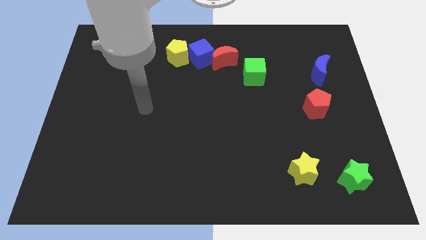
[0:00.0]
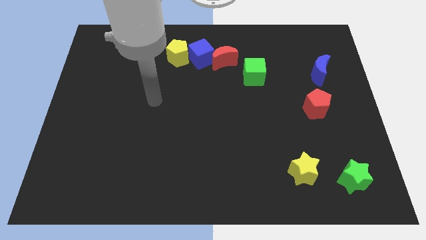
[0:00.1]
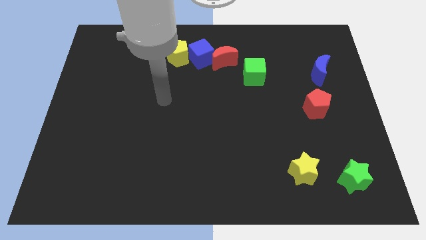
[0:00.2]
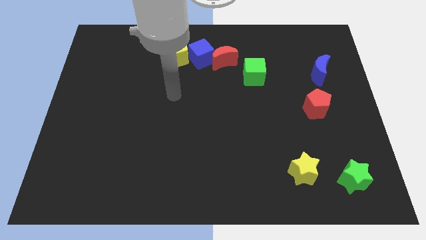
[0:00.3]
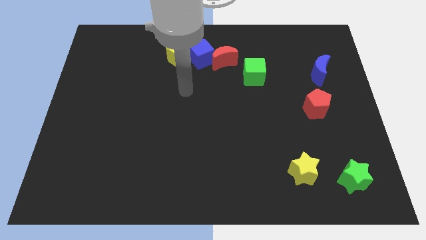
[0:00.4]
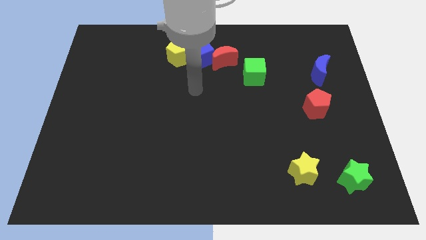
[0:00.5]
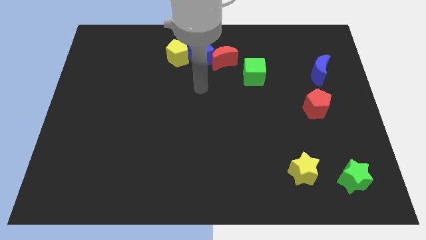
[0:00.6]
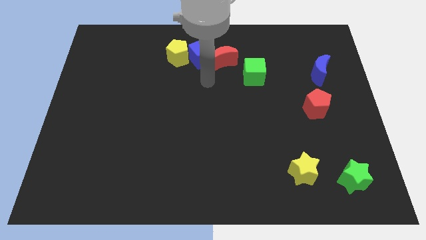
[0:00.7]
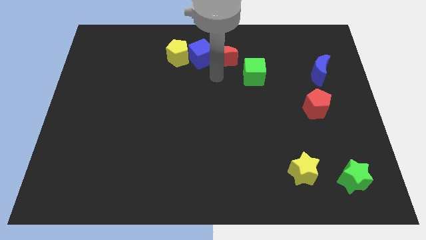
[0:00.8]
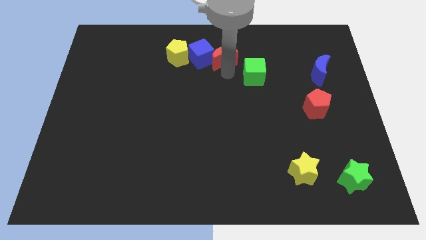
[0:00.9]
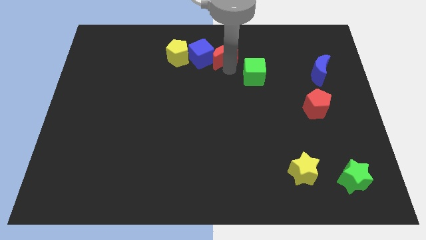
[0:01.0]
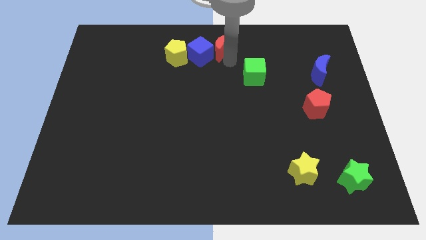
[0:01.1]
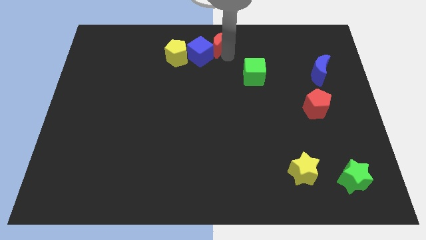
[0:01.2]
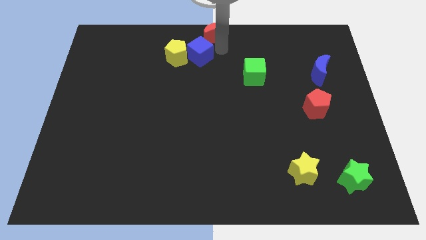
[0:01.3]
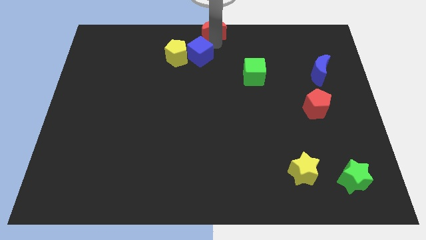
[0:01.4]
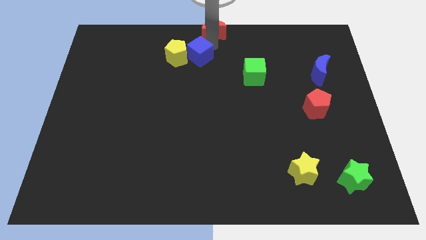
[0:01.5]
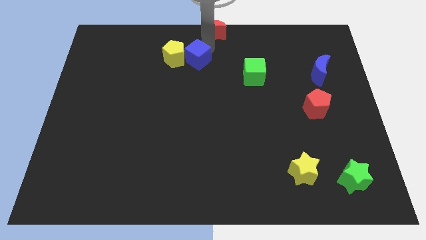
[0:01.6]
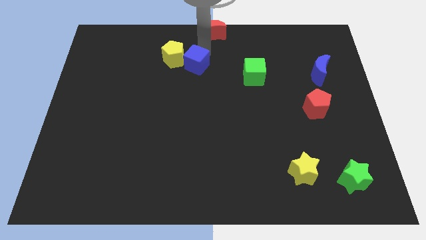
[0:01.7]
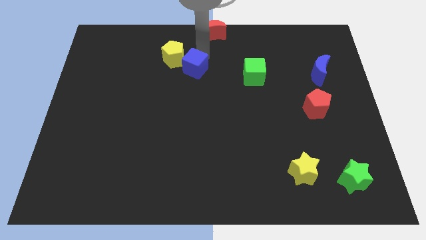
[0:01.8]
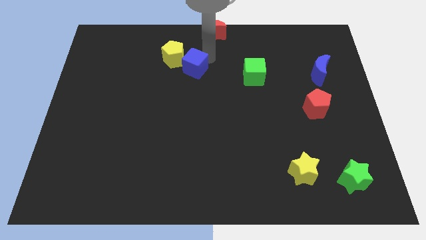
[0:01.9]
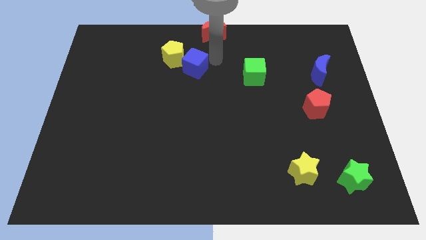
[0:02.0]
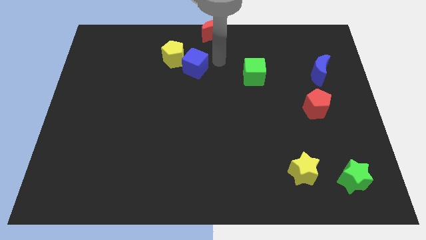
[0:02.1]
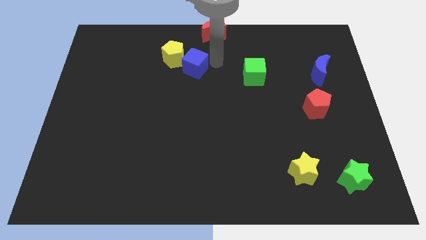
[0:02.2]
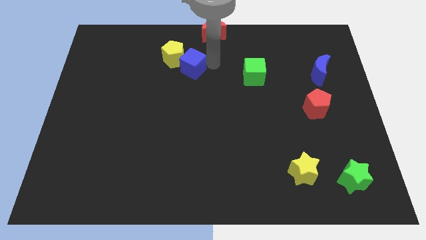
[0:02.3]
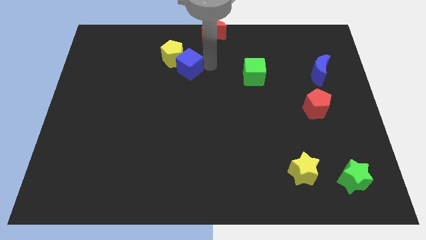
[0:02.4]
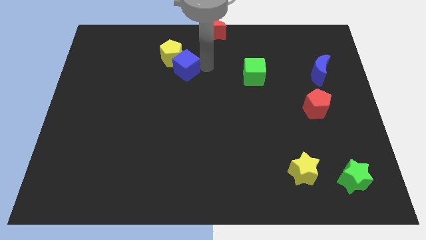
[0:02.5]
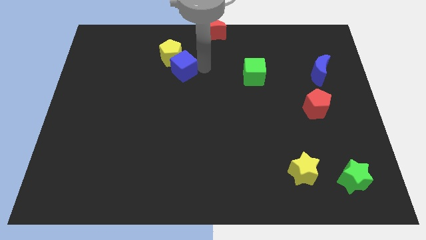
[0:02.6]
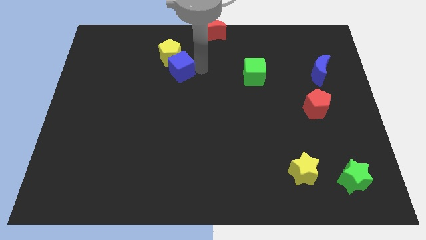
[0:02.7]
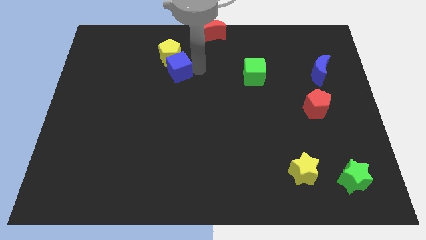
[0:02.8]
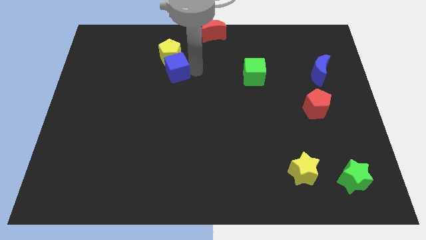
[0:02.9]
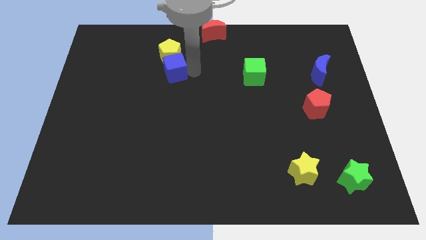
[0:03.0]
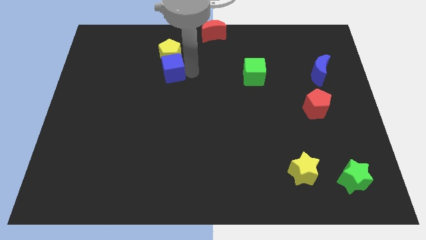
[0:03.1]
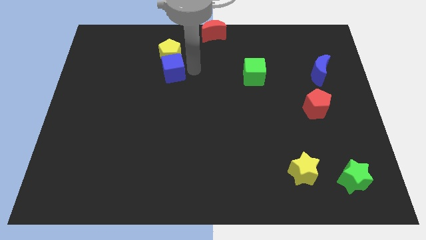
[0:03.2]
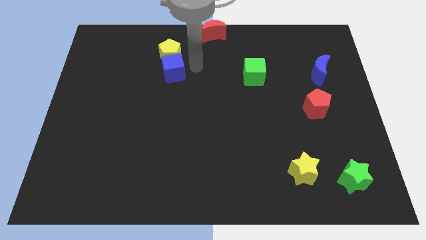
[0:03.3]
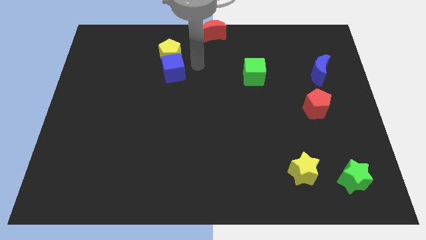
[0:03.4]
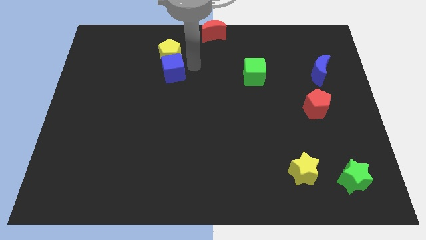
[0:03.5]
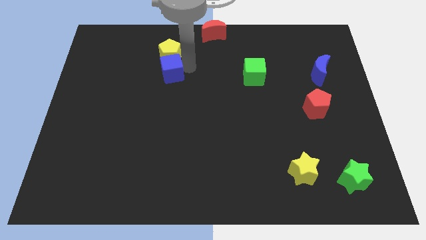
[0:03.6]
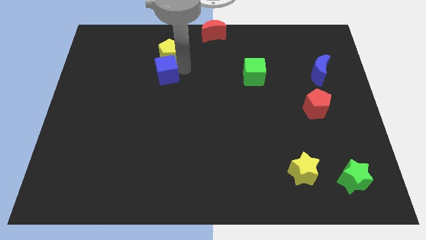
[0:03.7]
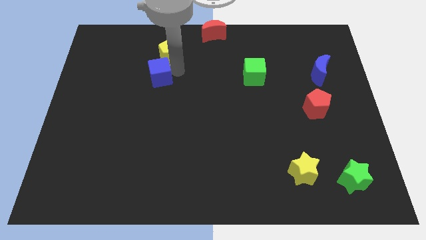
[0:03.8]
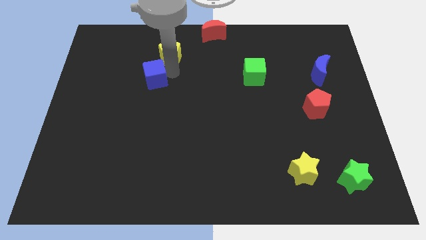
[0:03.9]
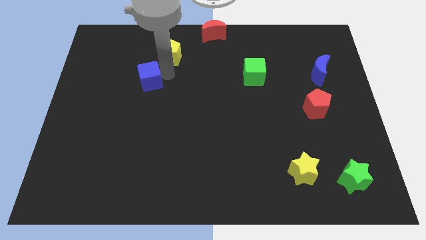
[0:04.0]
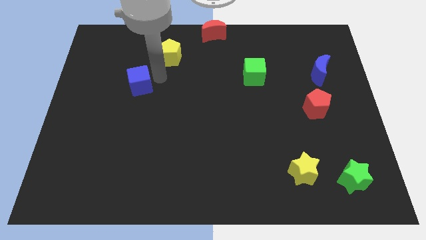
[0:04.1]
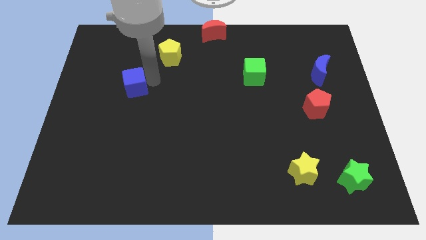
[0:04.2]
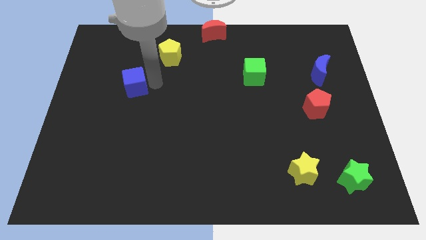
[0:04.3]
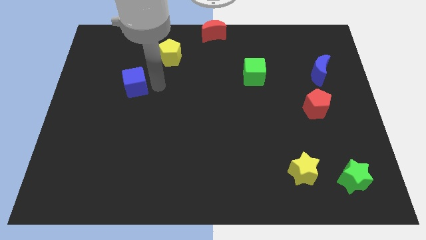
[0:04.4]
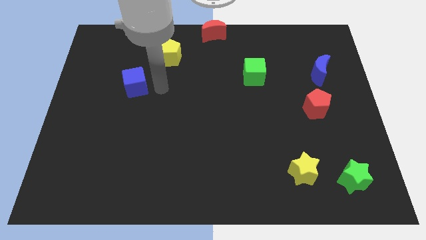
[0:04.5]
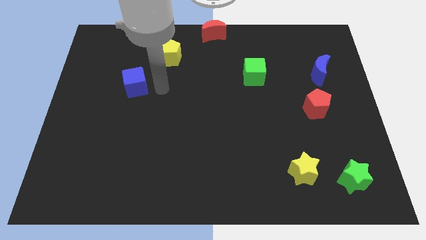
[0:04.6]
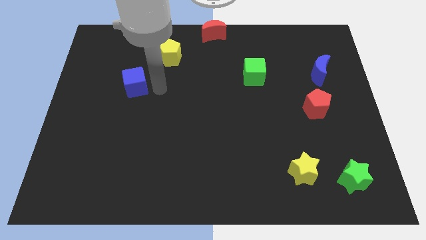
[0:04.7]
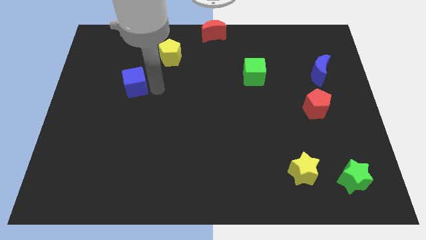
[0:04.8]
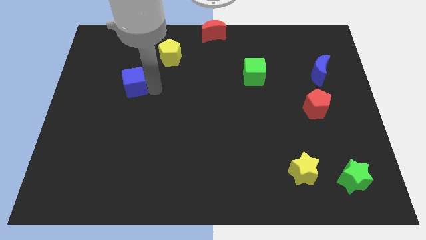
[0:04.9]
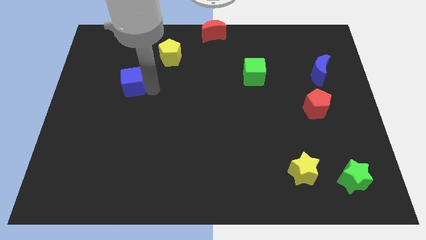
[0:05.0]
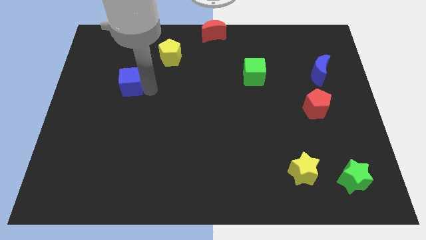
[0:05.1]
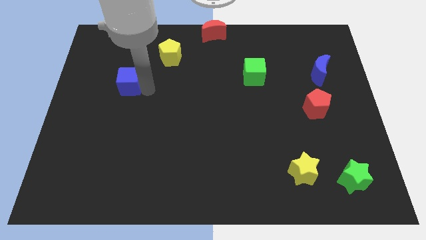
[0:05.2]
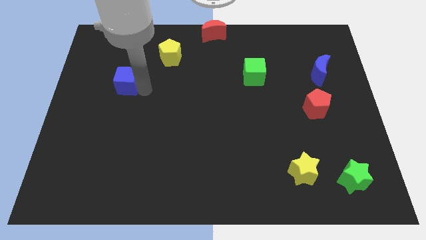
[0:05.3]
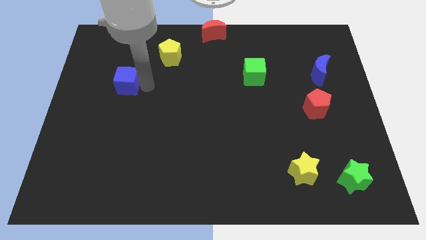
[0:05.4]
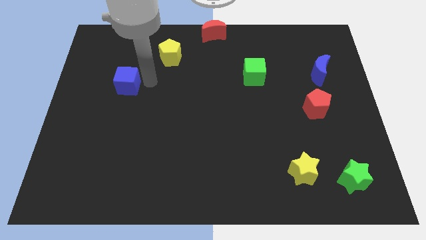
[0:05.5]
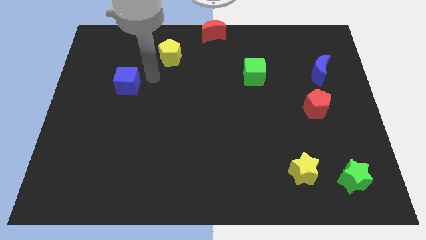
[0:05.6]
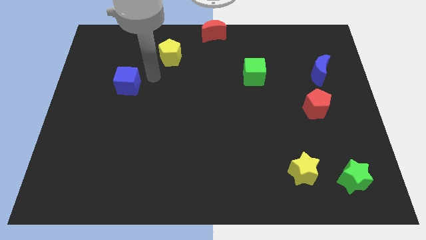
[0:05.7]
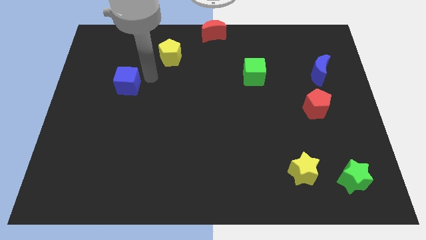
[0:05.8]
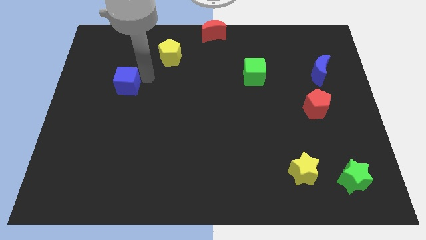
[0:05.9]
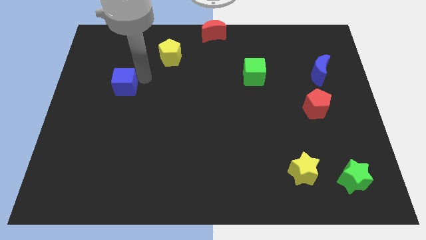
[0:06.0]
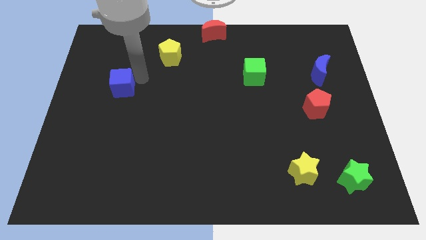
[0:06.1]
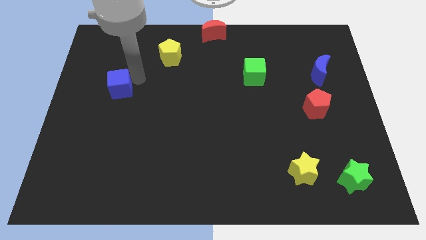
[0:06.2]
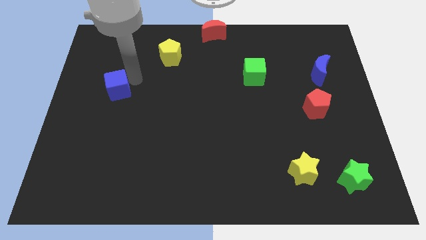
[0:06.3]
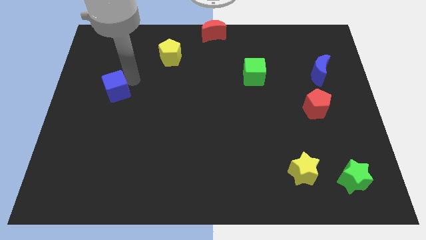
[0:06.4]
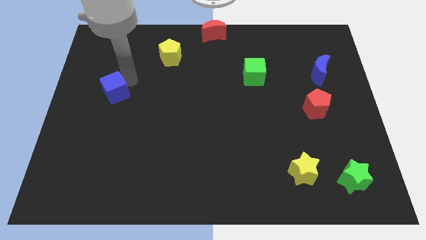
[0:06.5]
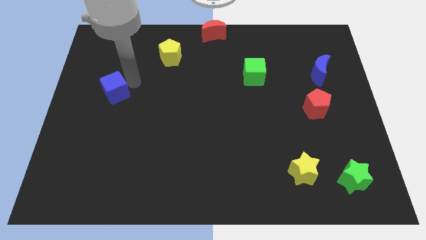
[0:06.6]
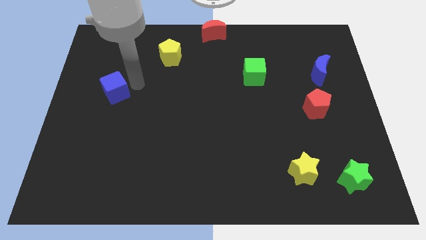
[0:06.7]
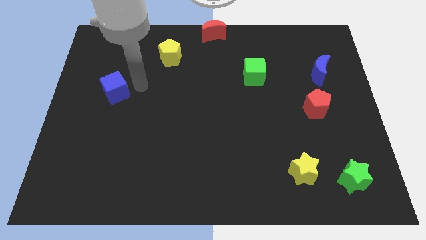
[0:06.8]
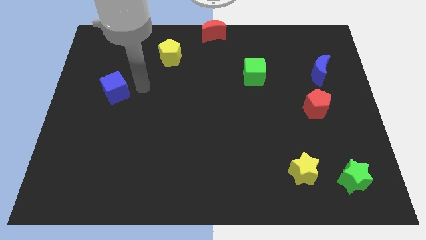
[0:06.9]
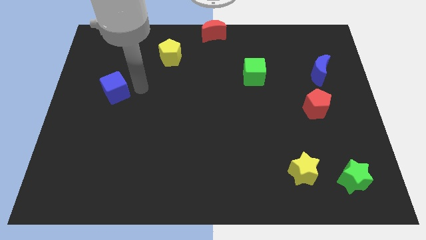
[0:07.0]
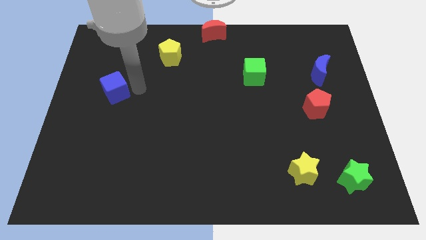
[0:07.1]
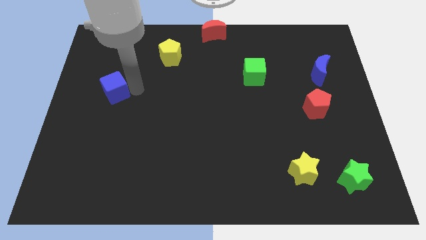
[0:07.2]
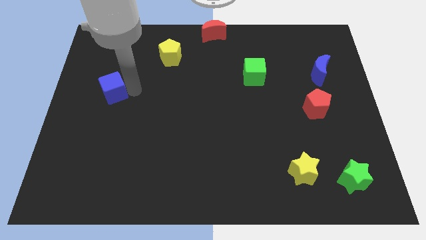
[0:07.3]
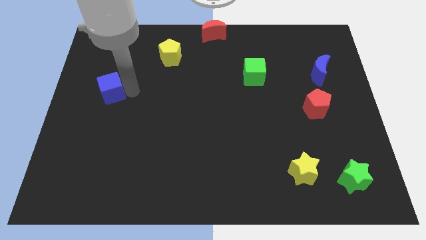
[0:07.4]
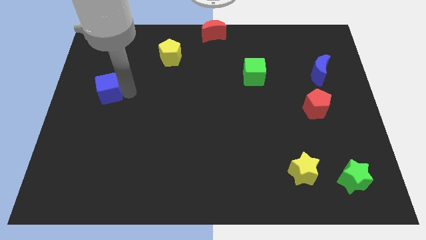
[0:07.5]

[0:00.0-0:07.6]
put the blue cube to the left side of the board
